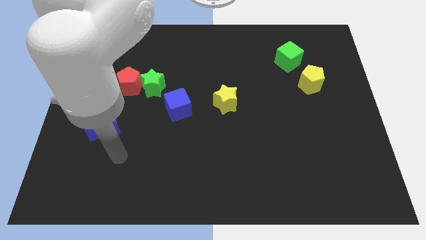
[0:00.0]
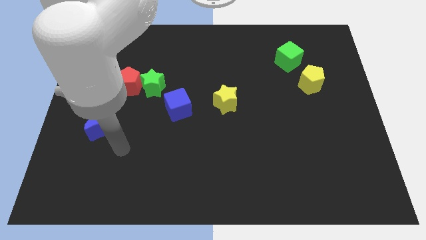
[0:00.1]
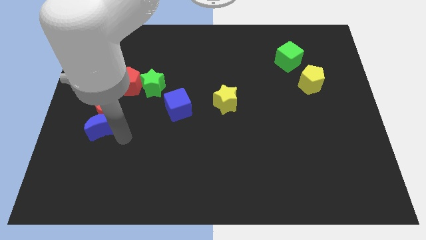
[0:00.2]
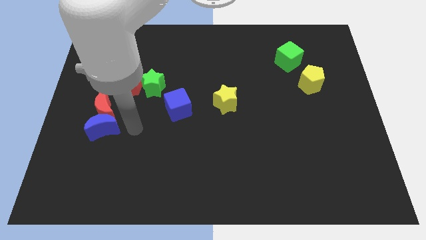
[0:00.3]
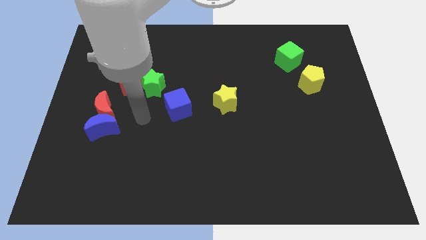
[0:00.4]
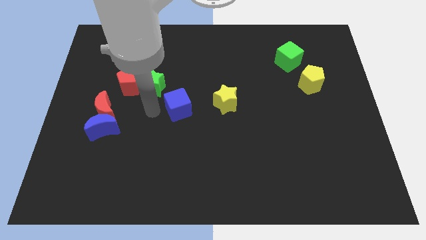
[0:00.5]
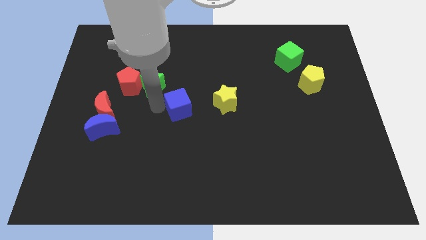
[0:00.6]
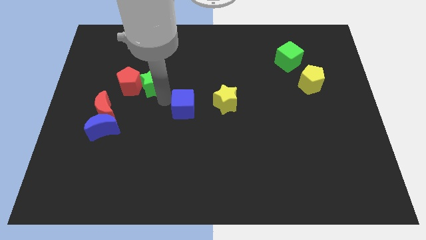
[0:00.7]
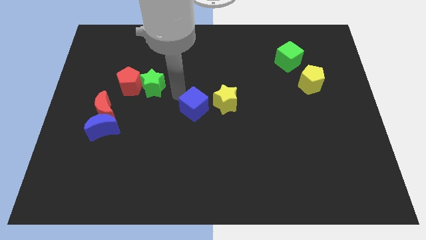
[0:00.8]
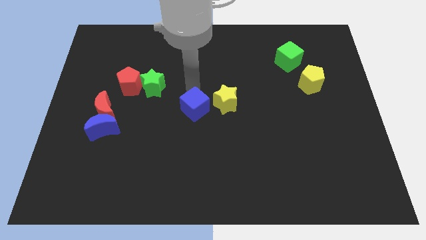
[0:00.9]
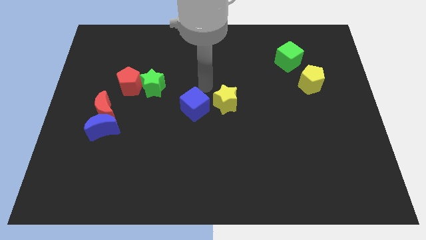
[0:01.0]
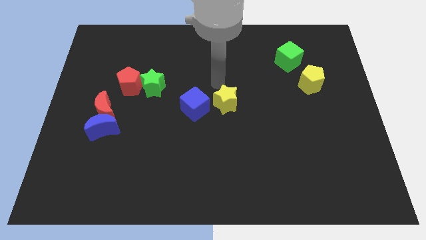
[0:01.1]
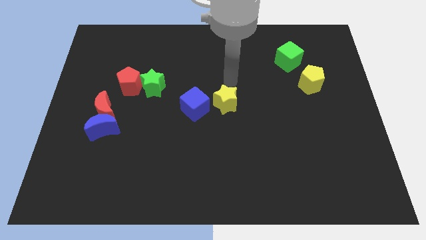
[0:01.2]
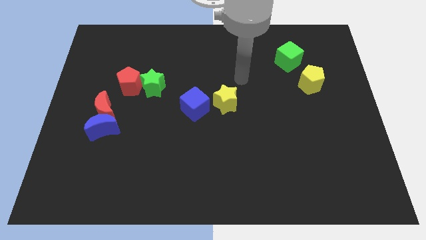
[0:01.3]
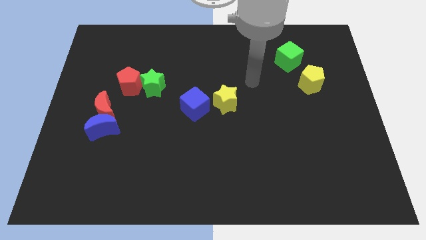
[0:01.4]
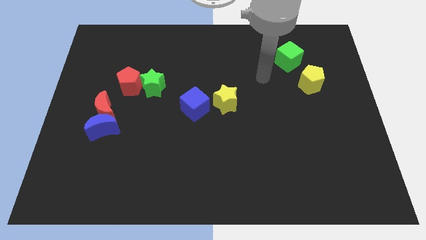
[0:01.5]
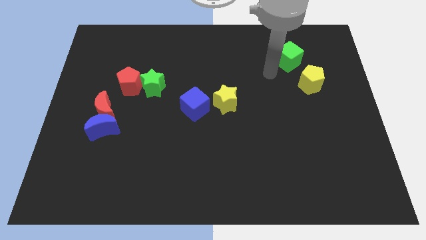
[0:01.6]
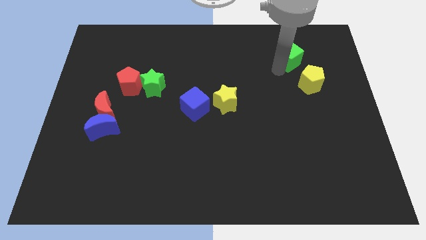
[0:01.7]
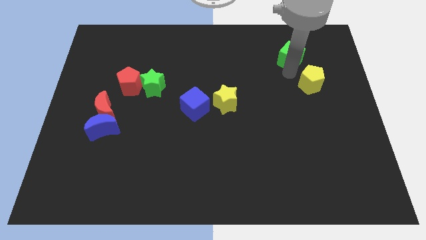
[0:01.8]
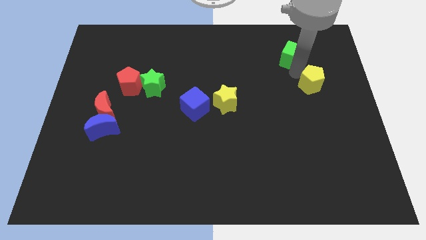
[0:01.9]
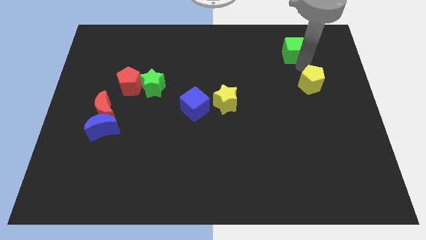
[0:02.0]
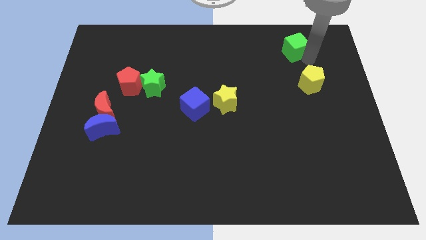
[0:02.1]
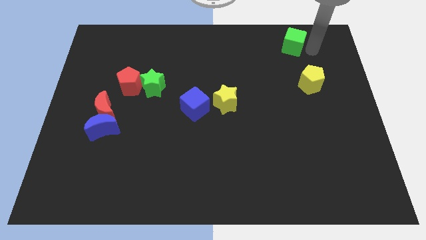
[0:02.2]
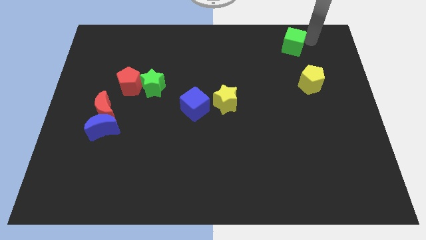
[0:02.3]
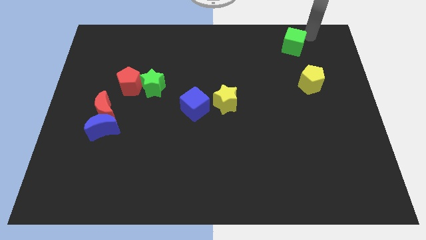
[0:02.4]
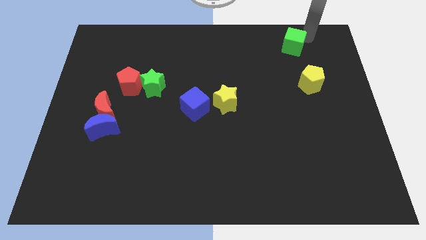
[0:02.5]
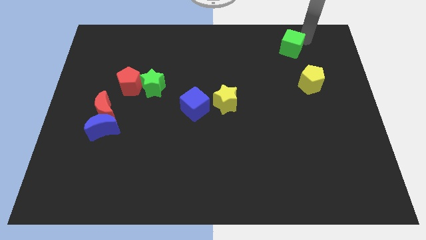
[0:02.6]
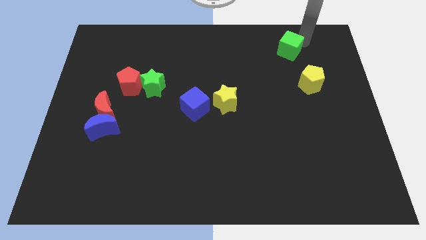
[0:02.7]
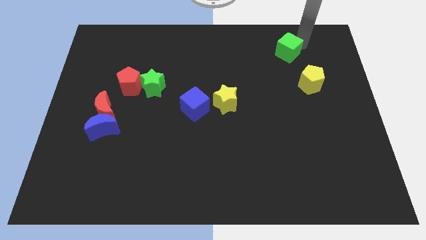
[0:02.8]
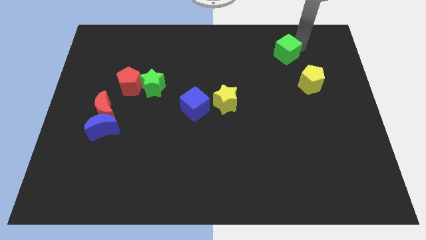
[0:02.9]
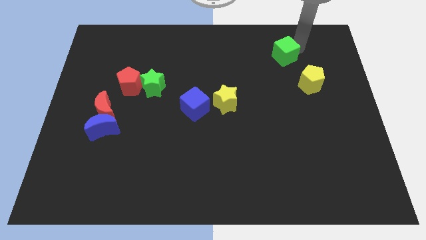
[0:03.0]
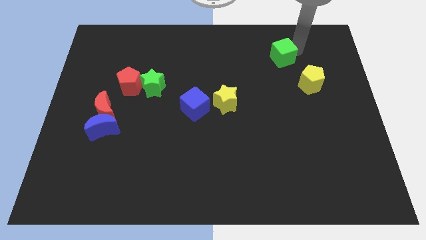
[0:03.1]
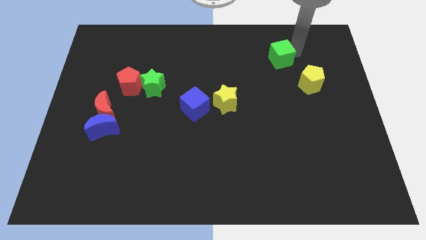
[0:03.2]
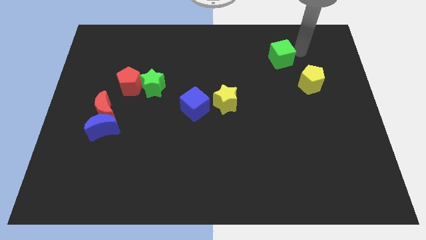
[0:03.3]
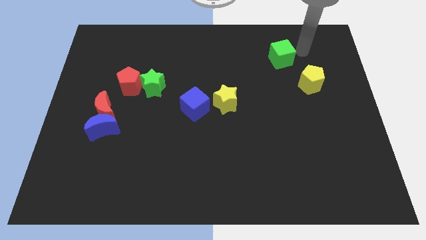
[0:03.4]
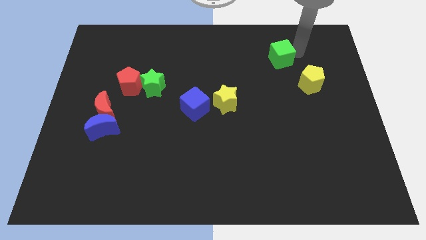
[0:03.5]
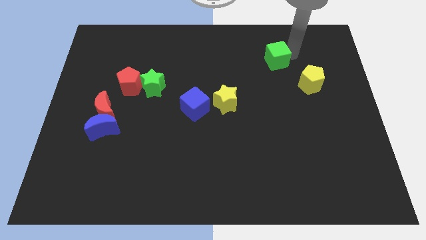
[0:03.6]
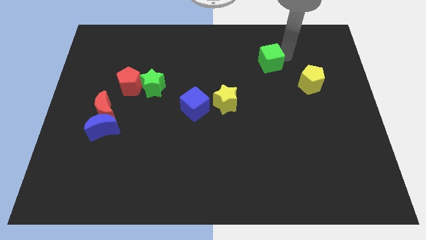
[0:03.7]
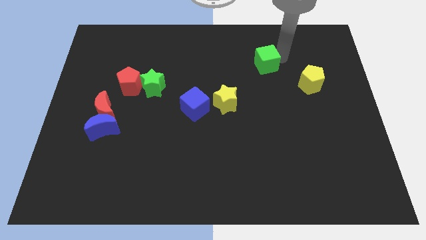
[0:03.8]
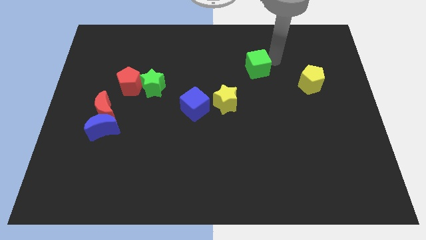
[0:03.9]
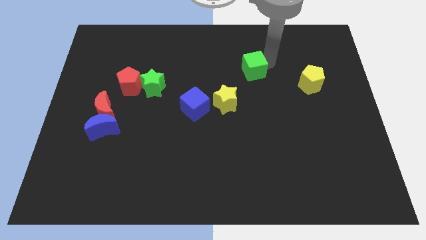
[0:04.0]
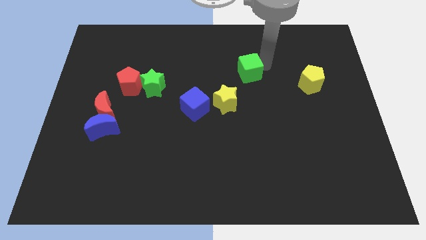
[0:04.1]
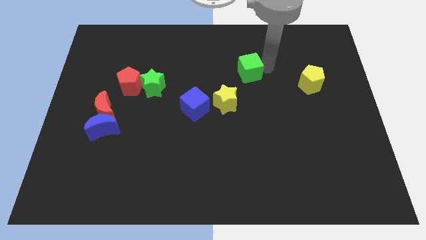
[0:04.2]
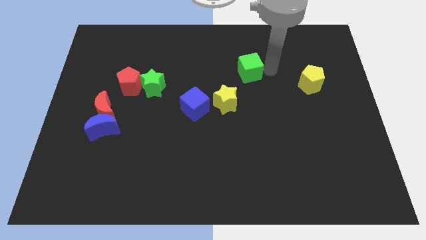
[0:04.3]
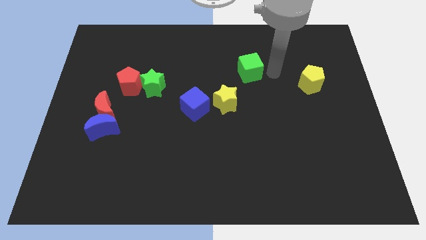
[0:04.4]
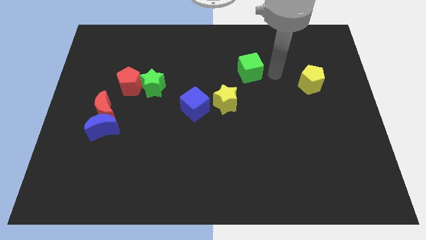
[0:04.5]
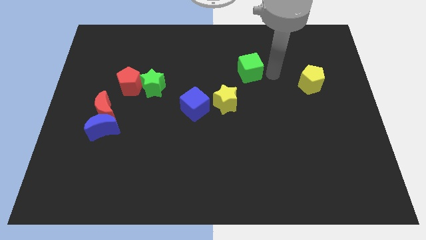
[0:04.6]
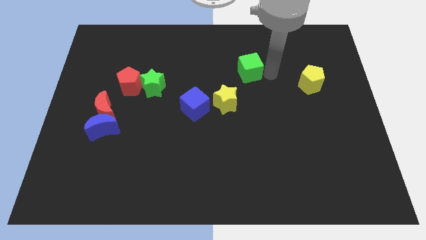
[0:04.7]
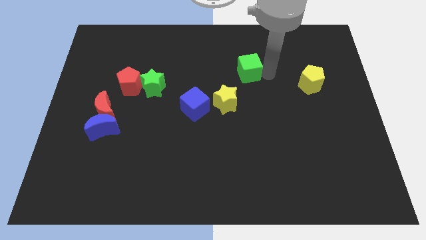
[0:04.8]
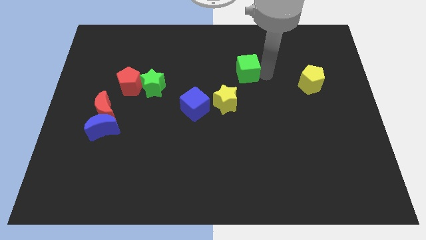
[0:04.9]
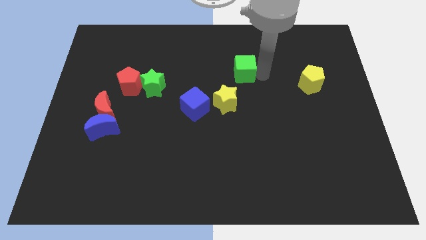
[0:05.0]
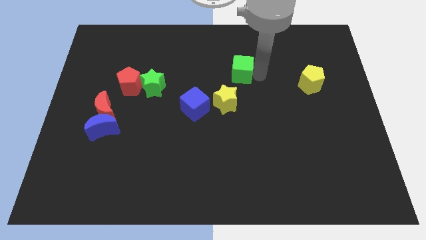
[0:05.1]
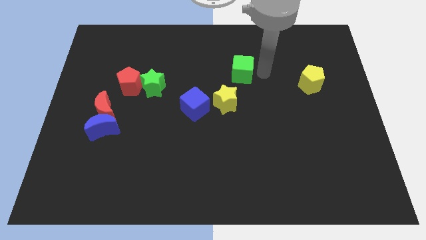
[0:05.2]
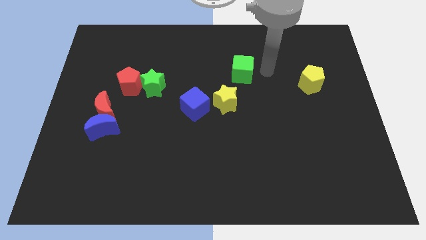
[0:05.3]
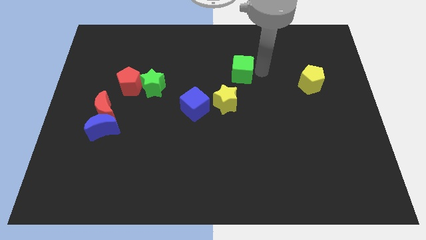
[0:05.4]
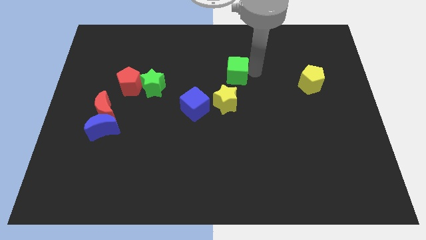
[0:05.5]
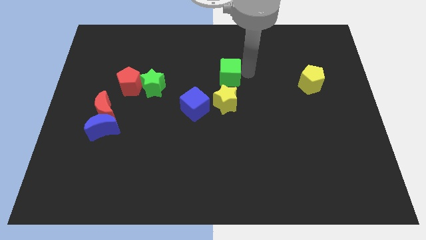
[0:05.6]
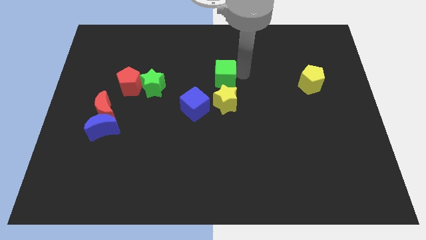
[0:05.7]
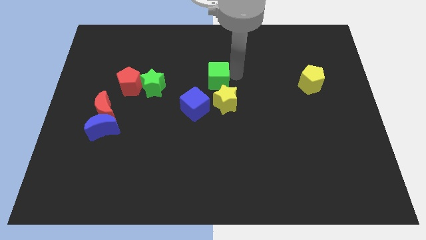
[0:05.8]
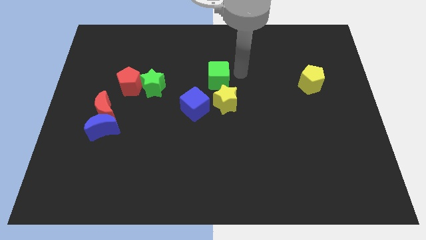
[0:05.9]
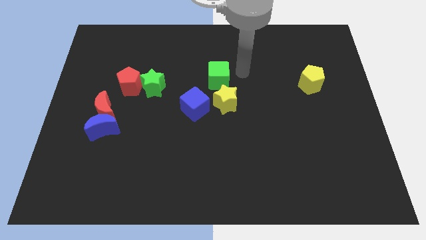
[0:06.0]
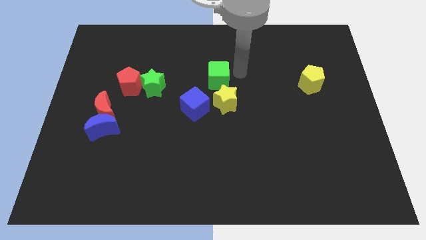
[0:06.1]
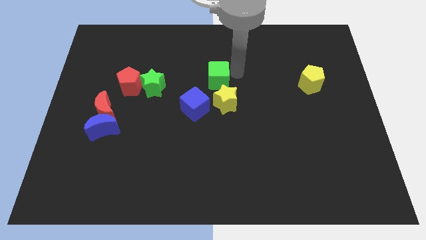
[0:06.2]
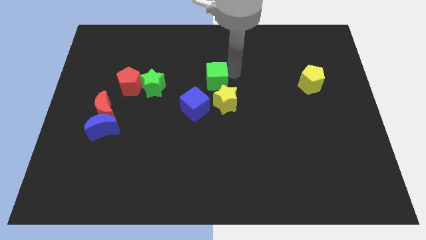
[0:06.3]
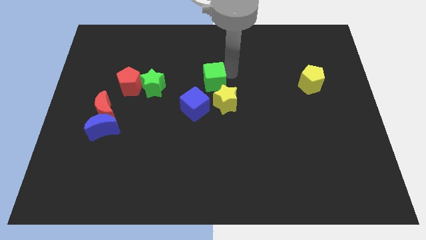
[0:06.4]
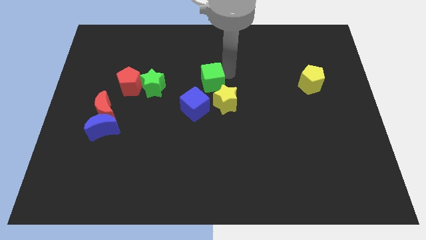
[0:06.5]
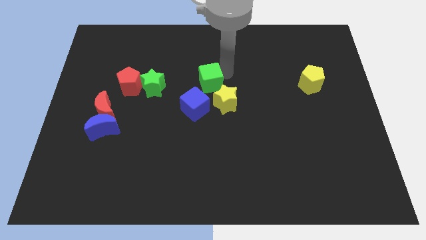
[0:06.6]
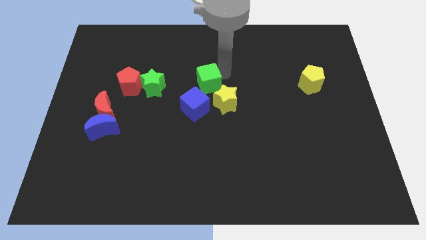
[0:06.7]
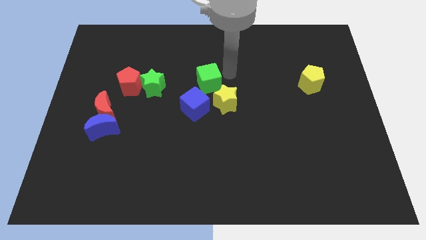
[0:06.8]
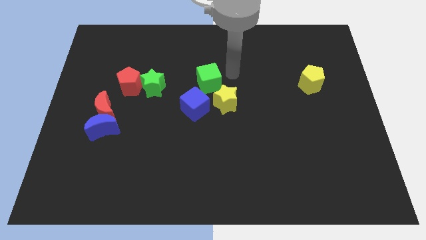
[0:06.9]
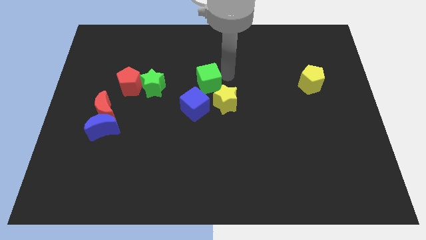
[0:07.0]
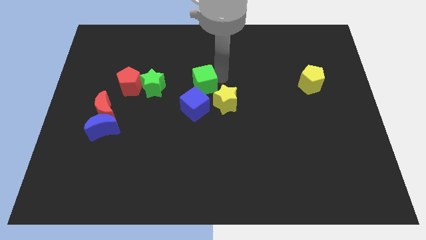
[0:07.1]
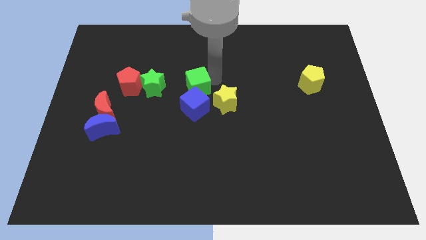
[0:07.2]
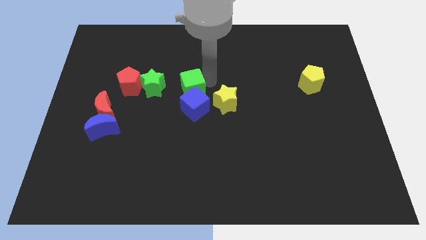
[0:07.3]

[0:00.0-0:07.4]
slide the green cube to the left side of the yellow star
